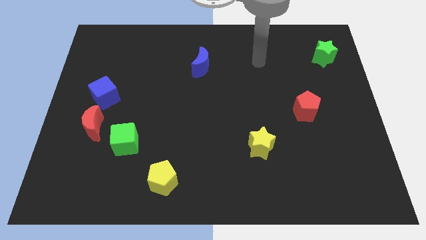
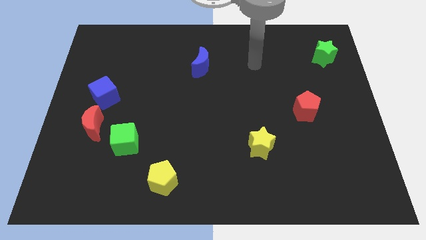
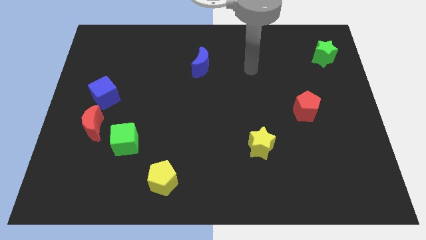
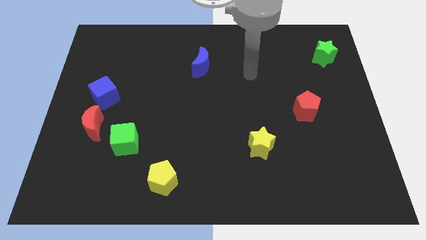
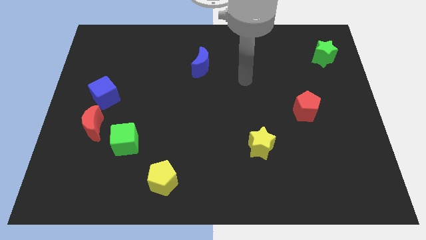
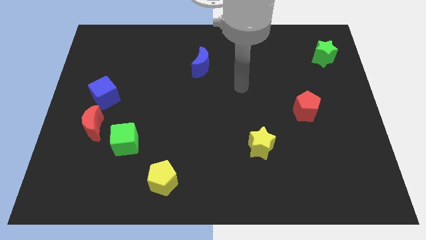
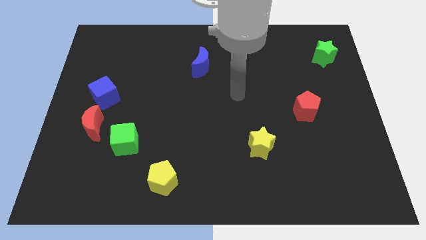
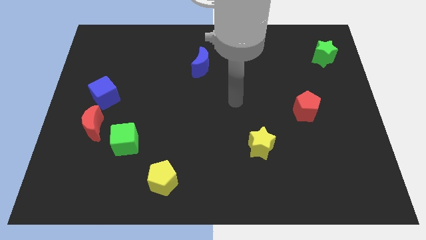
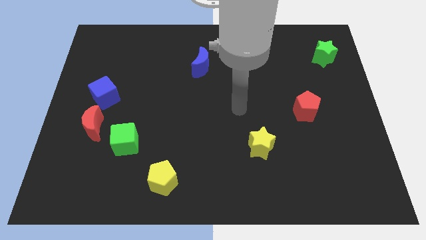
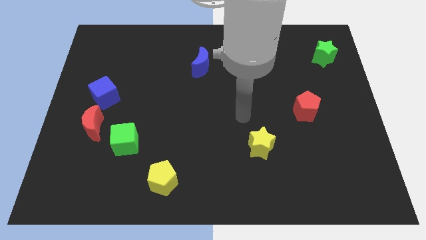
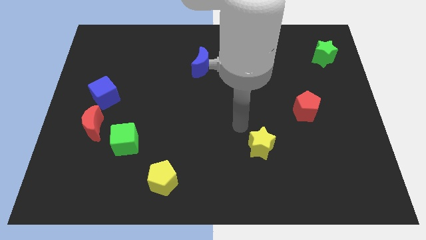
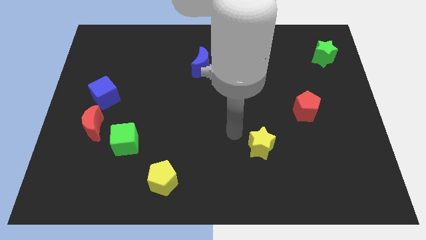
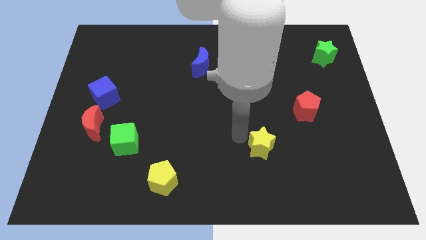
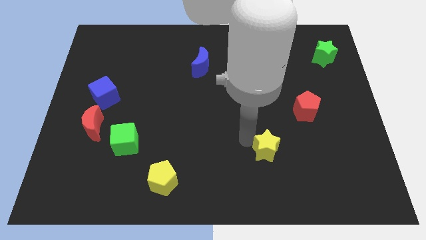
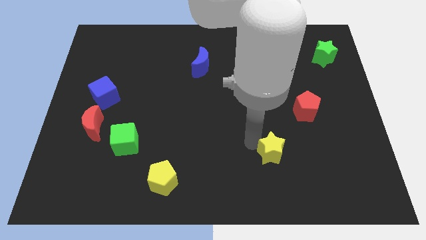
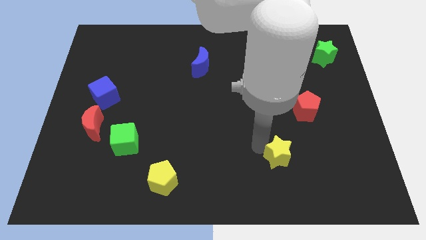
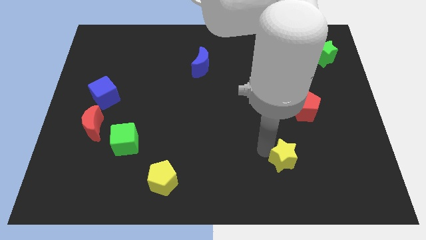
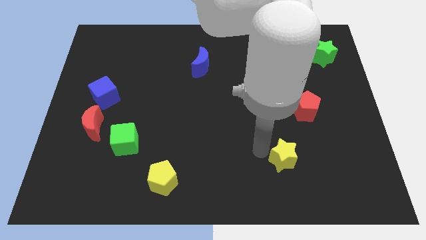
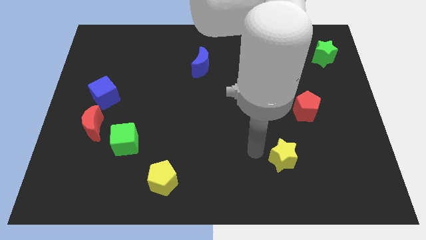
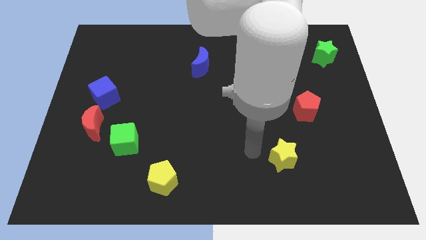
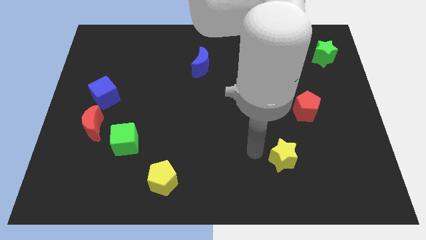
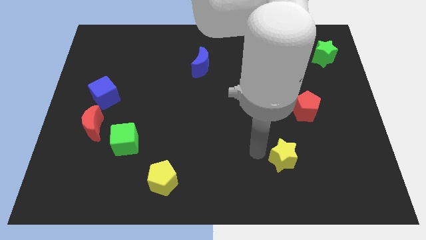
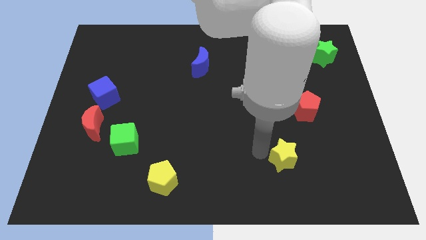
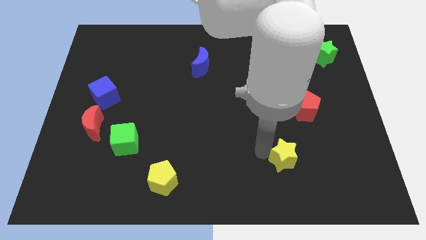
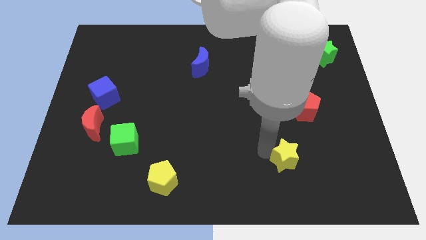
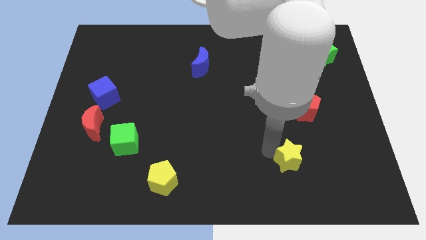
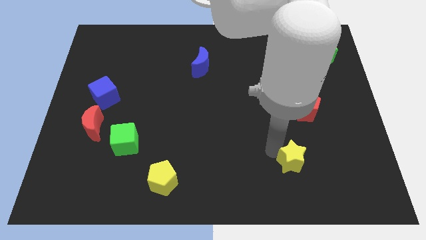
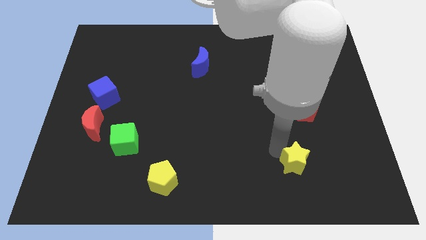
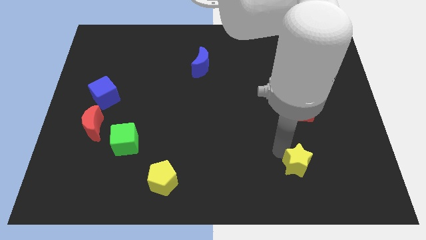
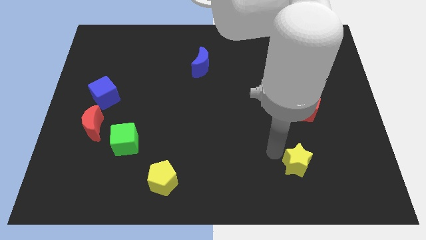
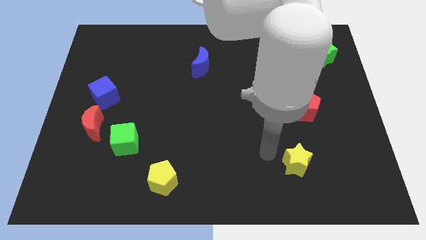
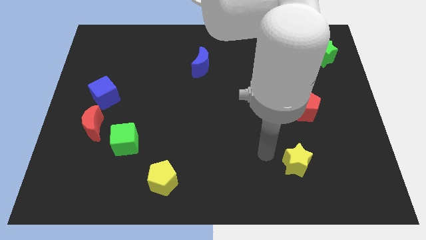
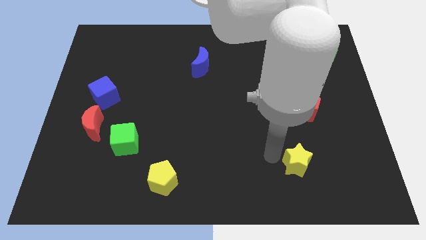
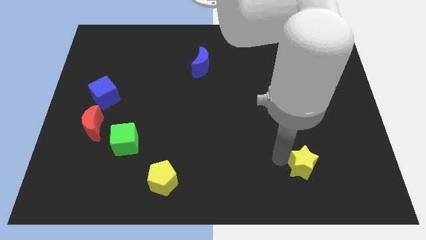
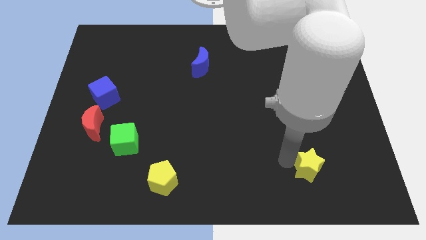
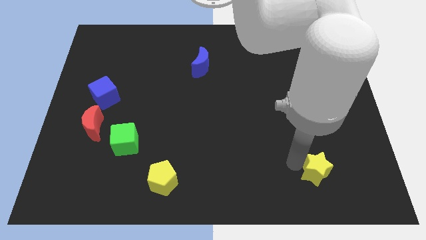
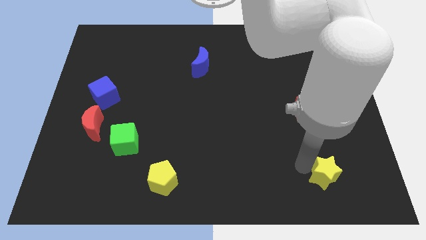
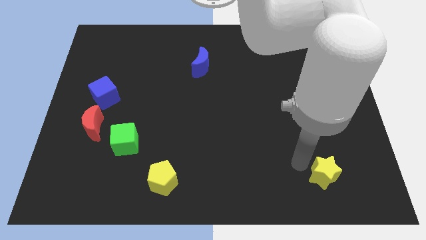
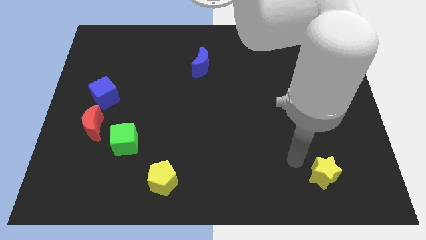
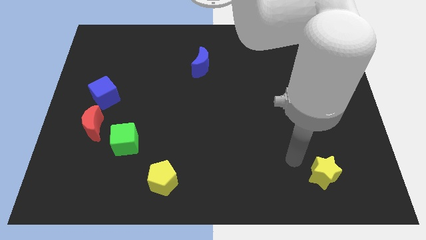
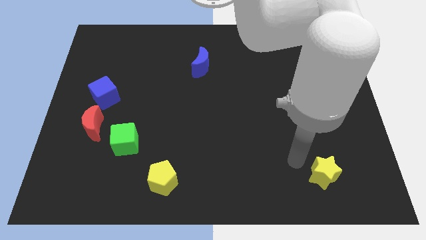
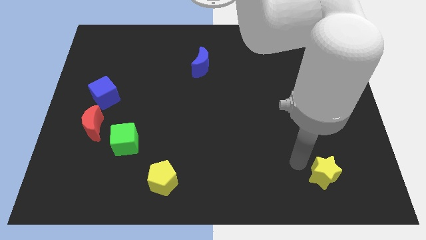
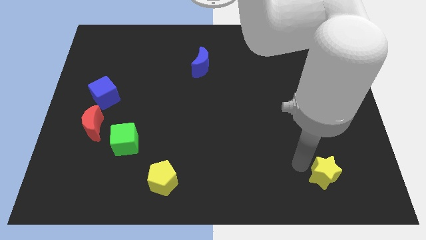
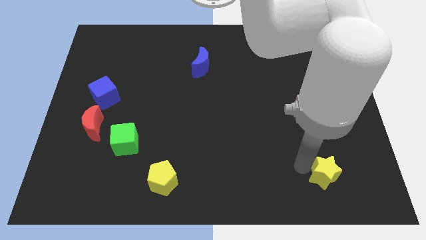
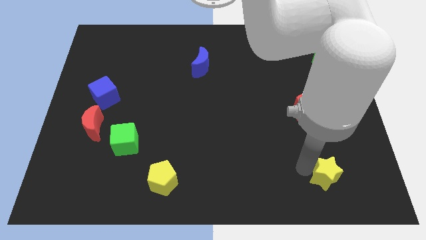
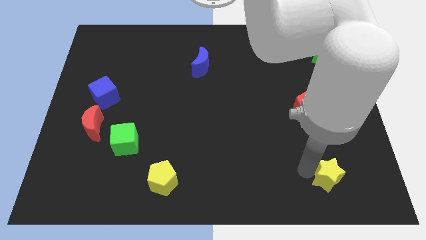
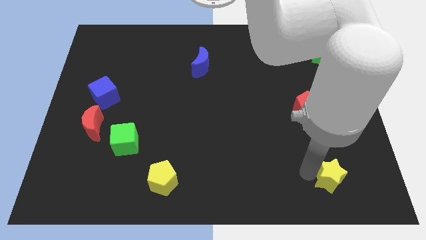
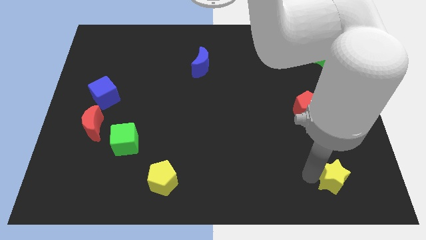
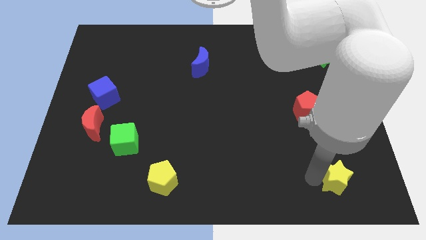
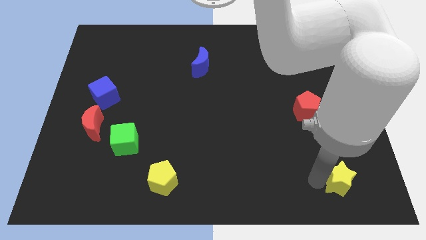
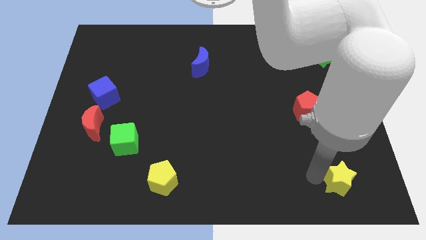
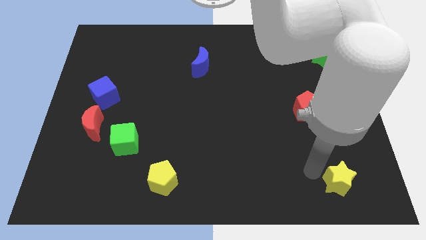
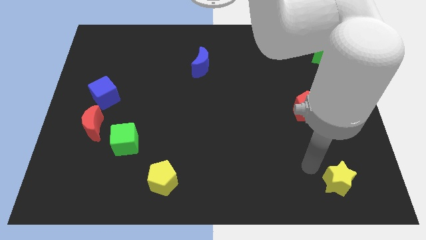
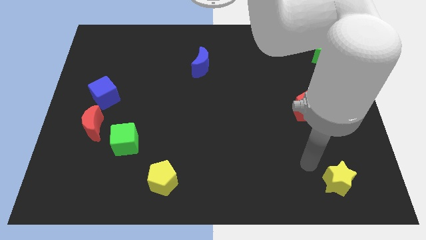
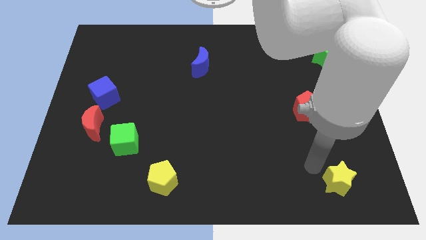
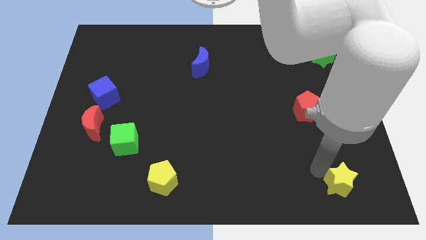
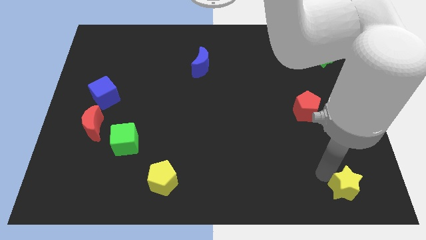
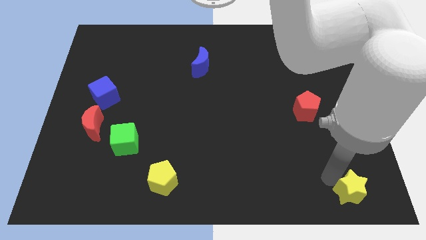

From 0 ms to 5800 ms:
slide the yellow star to the bottom right of the board
